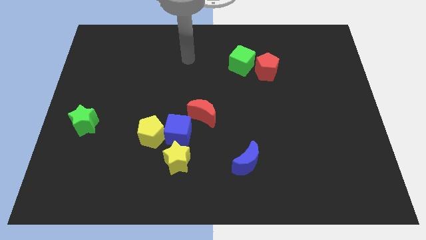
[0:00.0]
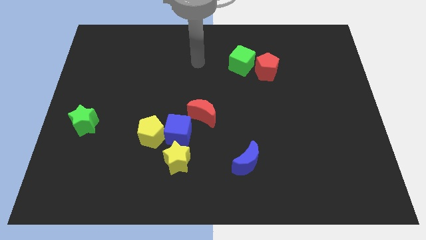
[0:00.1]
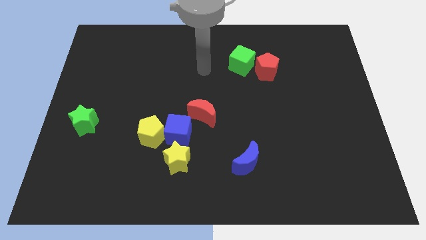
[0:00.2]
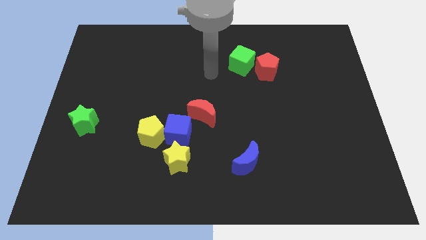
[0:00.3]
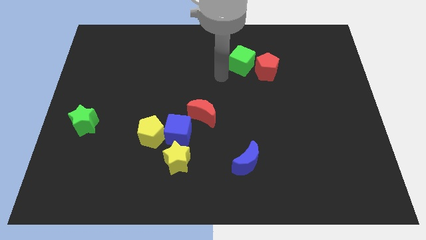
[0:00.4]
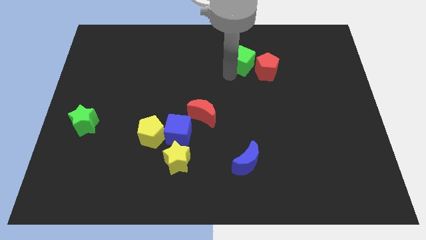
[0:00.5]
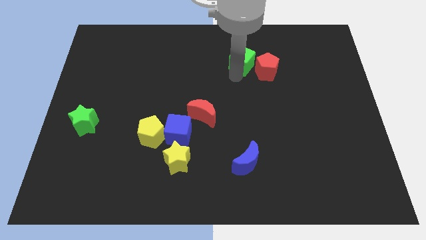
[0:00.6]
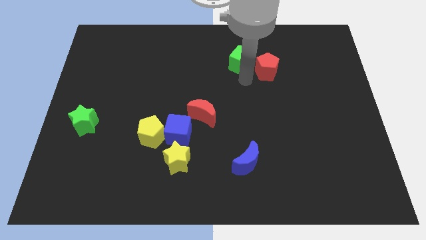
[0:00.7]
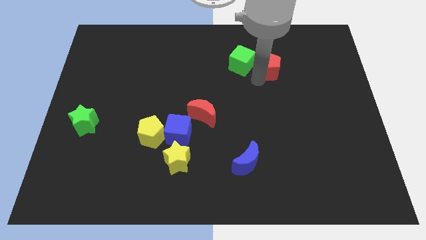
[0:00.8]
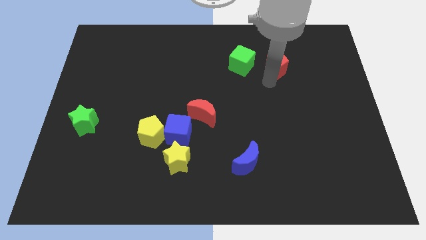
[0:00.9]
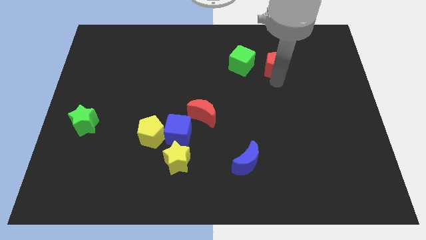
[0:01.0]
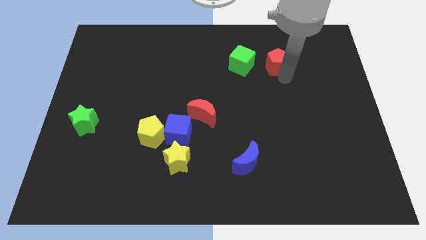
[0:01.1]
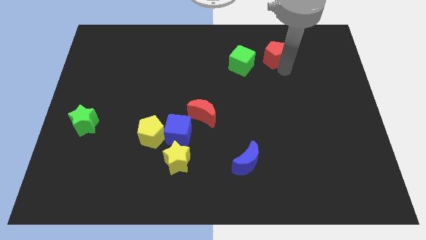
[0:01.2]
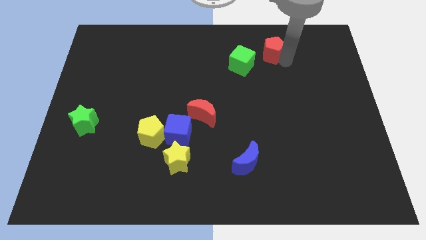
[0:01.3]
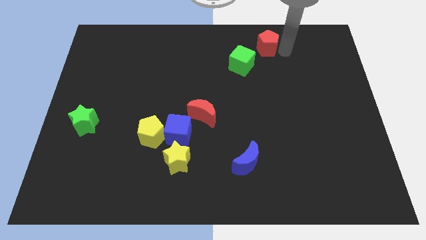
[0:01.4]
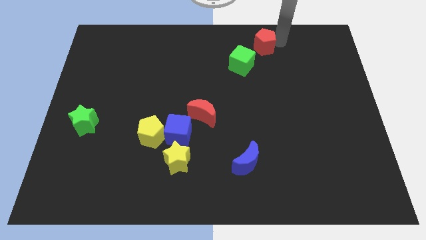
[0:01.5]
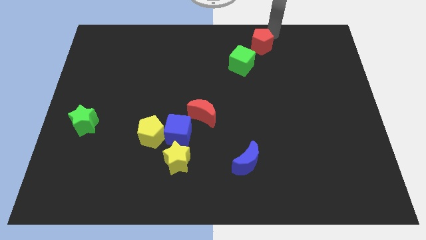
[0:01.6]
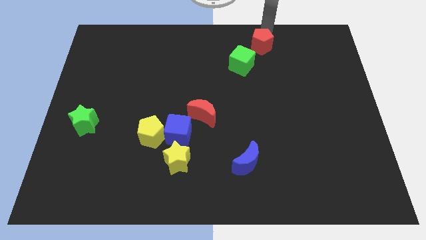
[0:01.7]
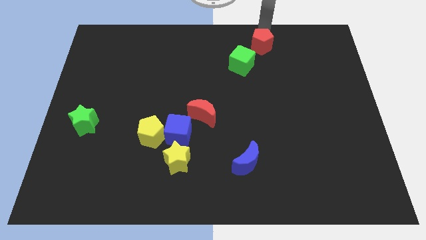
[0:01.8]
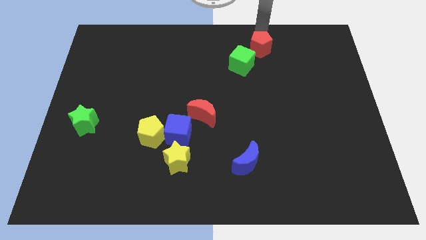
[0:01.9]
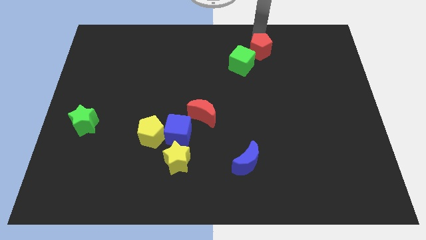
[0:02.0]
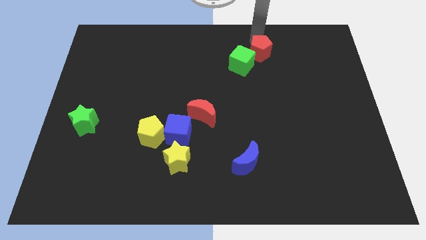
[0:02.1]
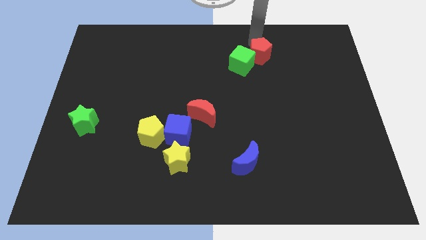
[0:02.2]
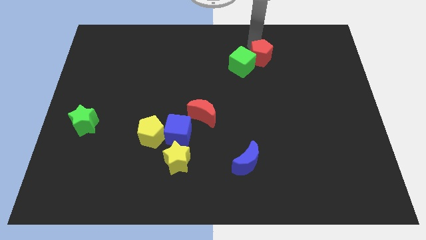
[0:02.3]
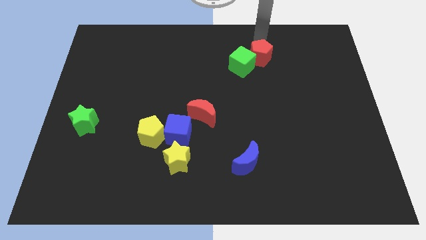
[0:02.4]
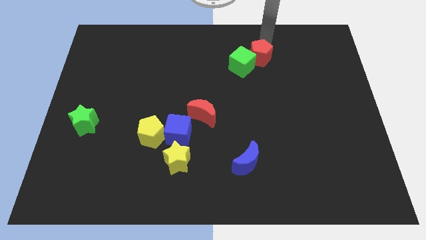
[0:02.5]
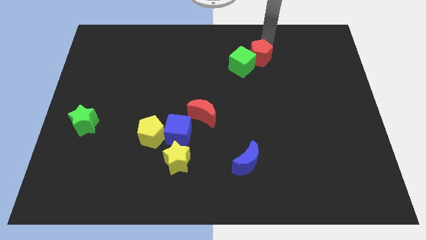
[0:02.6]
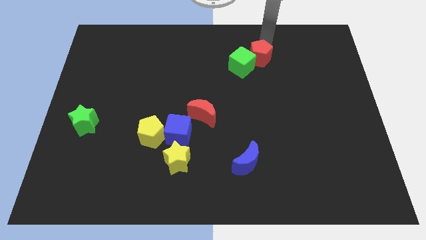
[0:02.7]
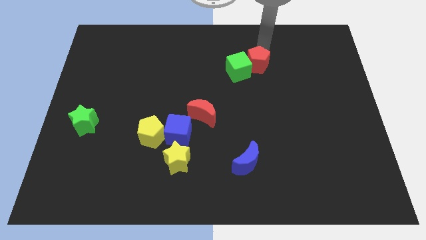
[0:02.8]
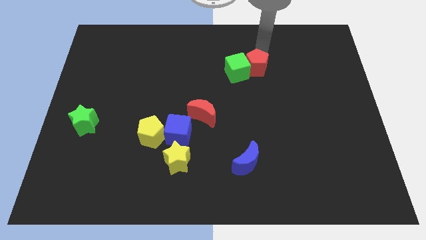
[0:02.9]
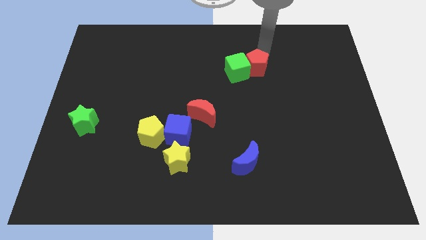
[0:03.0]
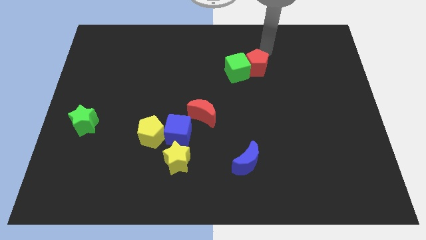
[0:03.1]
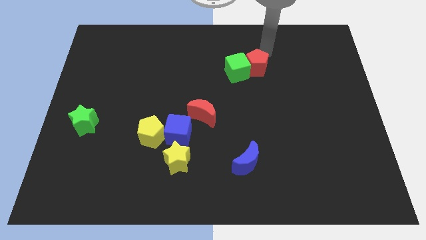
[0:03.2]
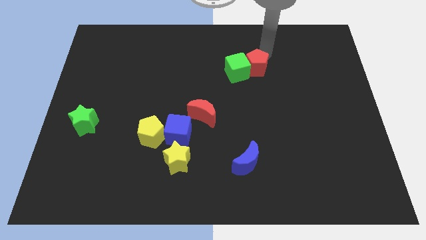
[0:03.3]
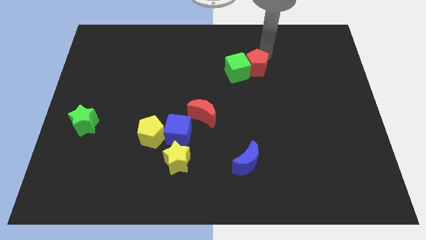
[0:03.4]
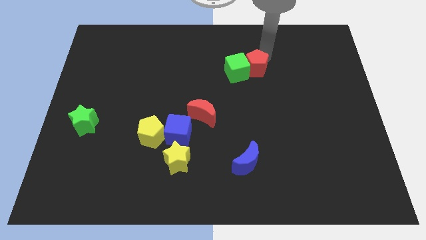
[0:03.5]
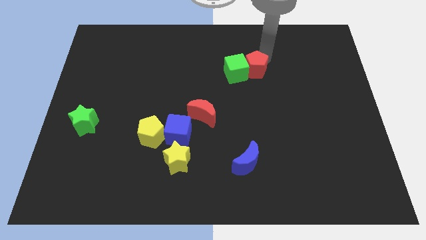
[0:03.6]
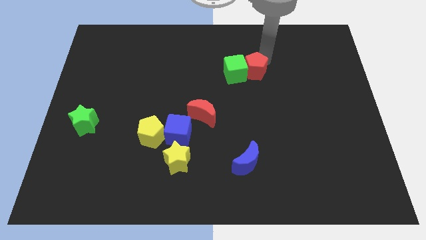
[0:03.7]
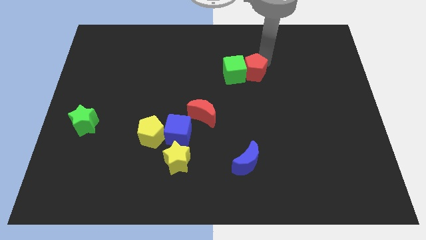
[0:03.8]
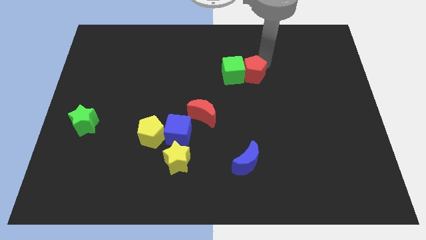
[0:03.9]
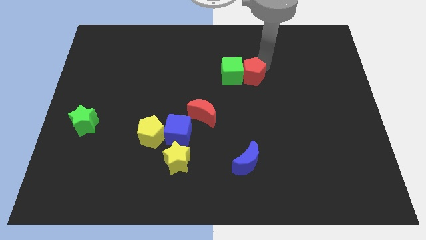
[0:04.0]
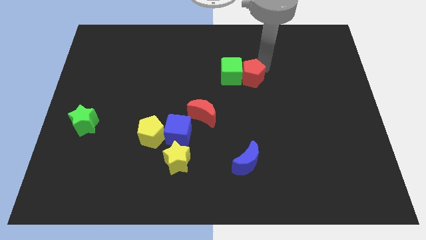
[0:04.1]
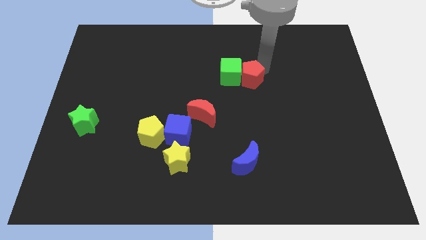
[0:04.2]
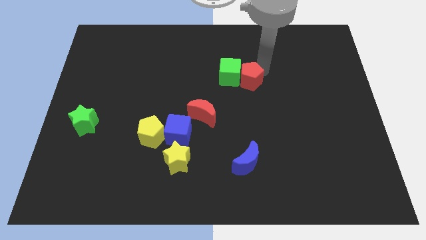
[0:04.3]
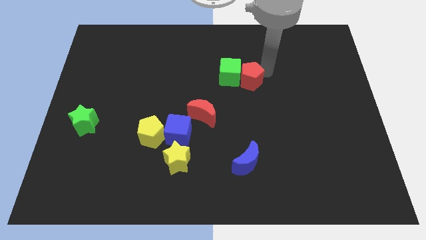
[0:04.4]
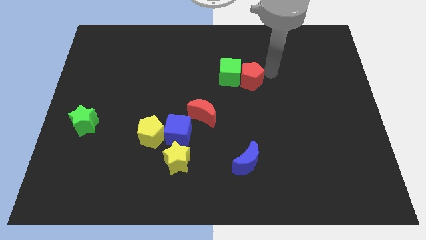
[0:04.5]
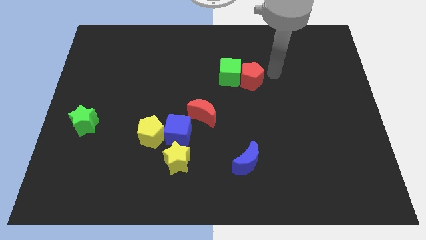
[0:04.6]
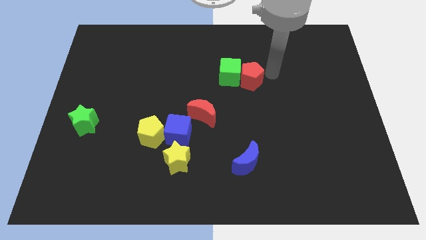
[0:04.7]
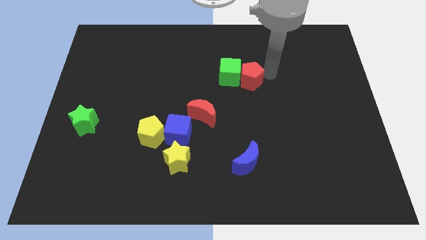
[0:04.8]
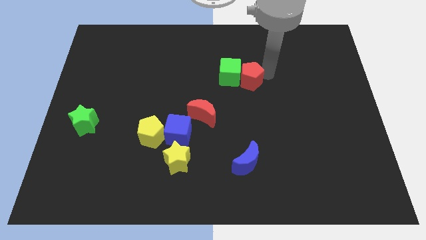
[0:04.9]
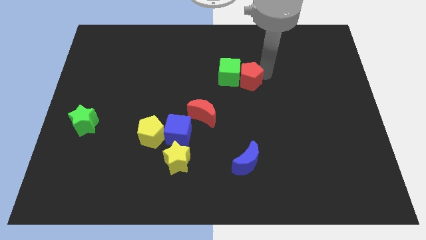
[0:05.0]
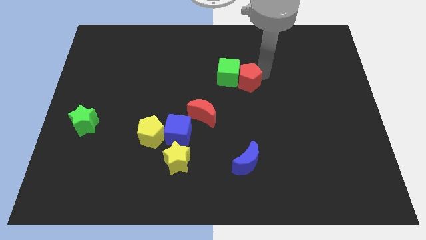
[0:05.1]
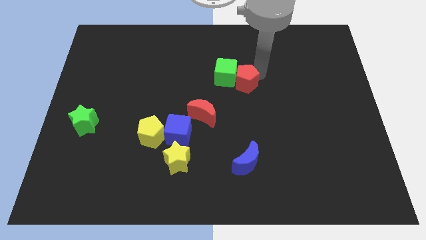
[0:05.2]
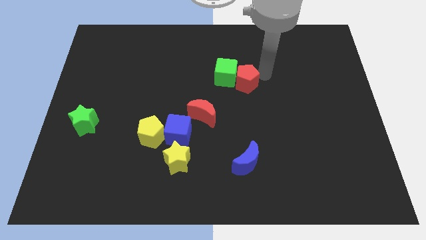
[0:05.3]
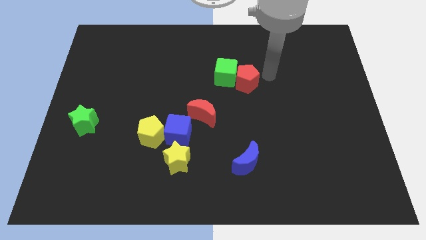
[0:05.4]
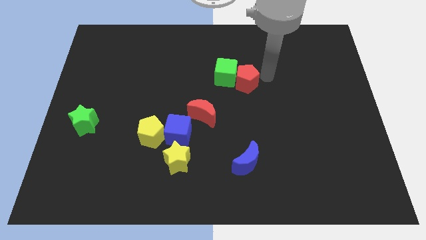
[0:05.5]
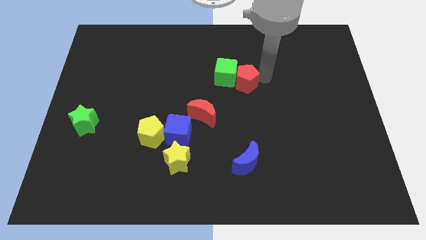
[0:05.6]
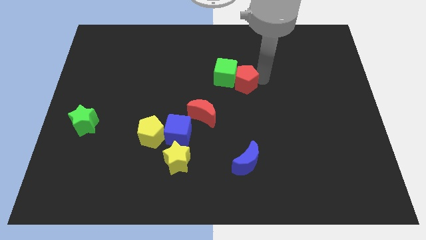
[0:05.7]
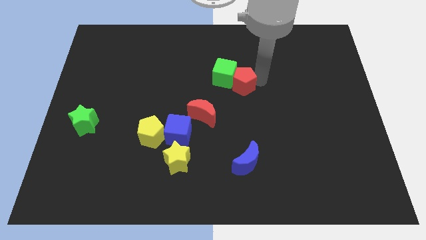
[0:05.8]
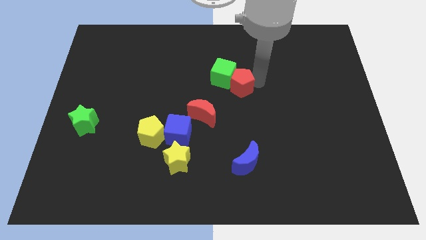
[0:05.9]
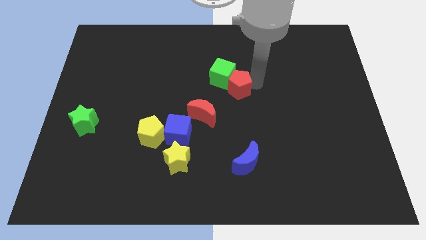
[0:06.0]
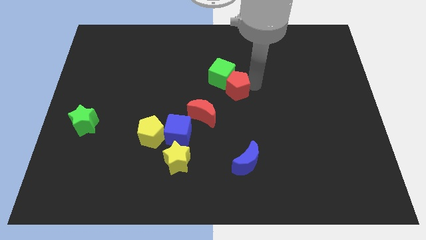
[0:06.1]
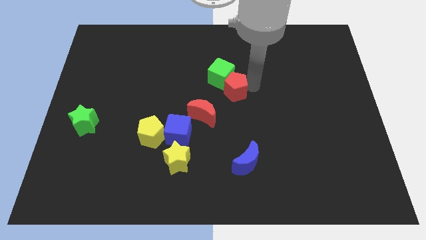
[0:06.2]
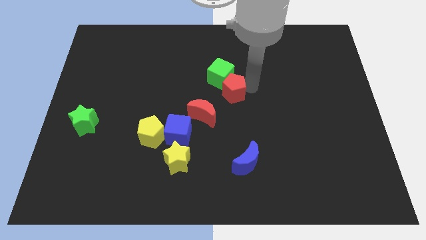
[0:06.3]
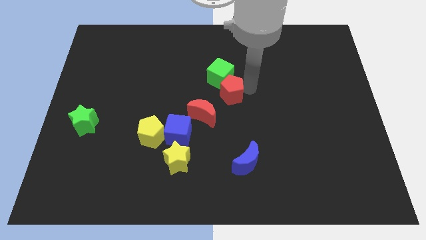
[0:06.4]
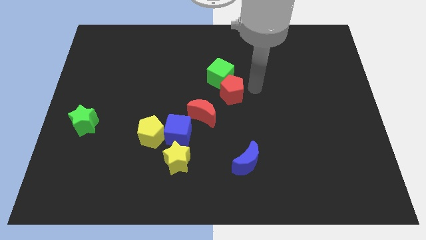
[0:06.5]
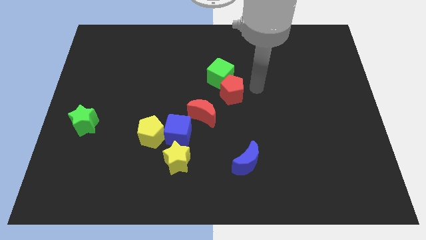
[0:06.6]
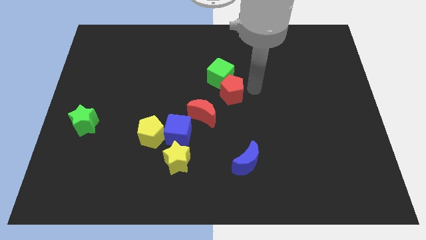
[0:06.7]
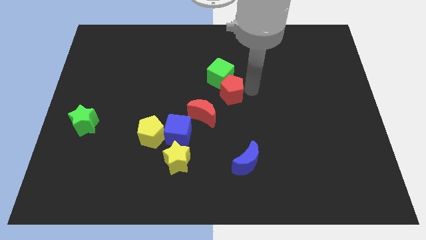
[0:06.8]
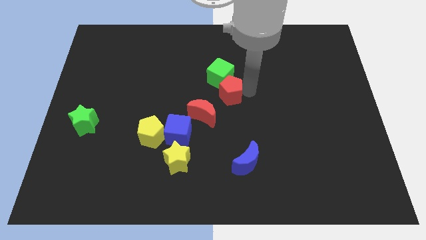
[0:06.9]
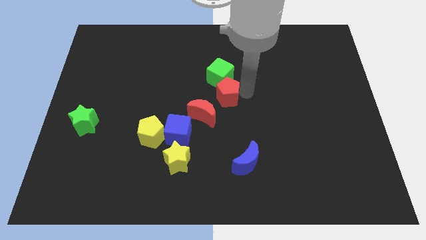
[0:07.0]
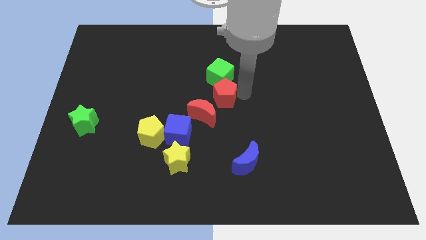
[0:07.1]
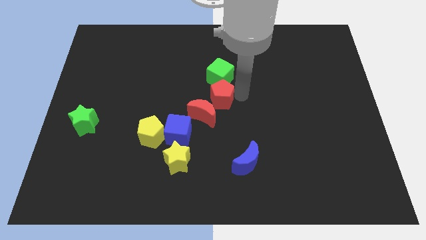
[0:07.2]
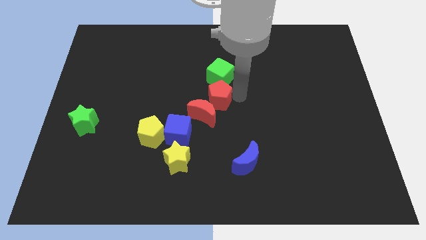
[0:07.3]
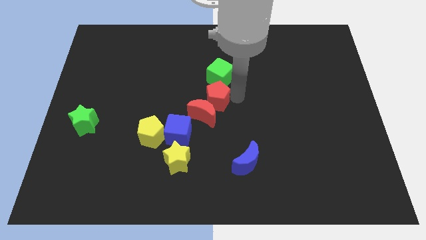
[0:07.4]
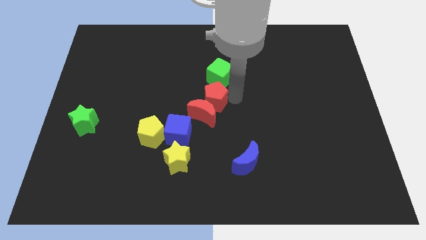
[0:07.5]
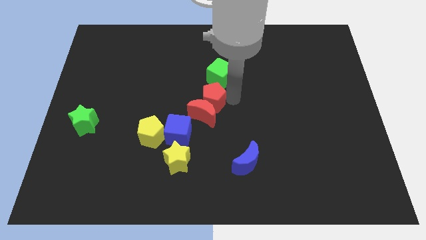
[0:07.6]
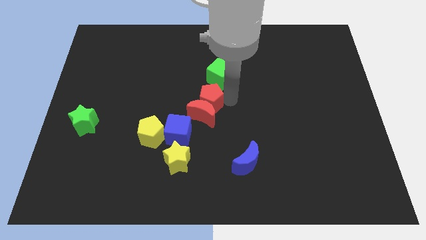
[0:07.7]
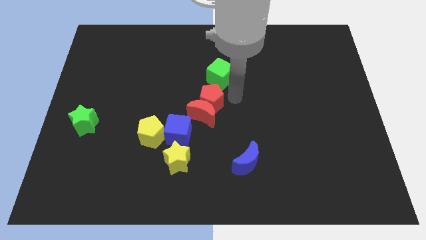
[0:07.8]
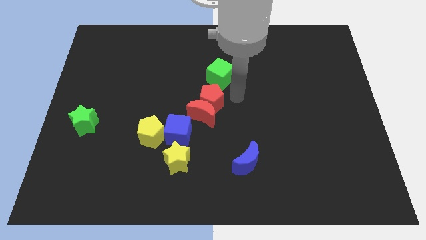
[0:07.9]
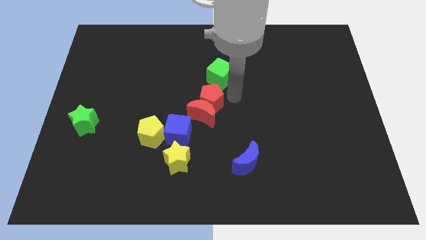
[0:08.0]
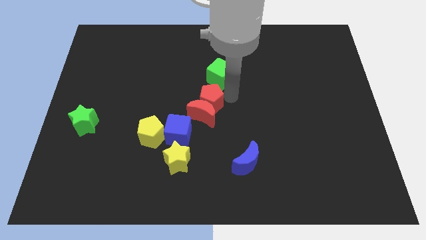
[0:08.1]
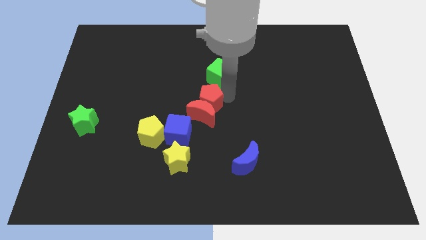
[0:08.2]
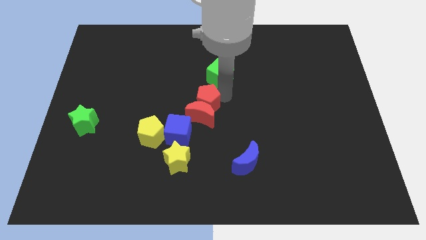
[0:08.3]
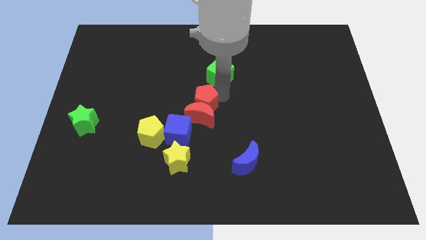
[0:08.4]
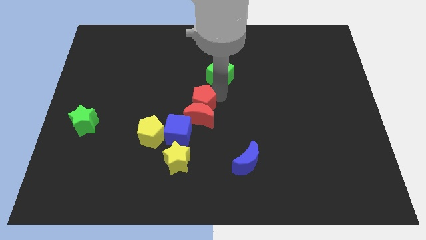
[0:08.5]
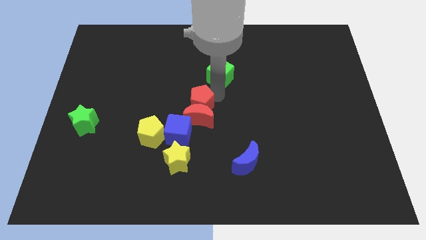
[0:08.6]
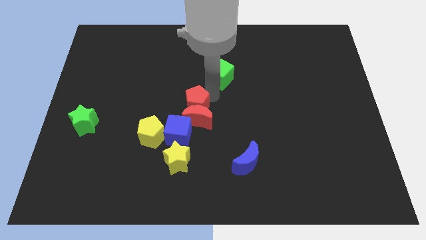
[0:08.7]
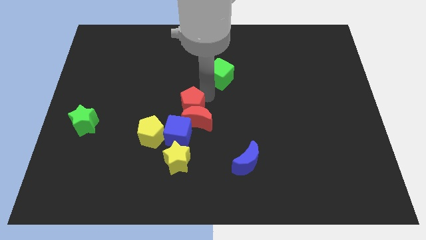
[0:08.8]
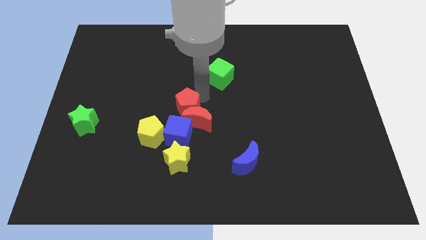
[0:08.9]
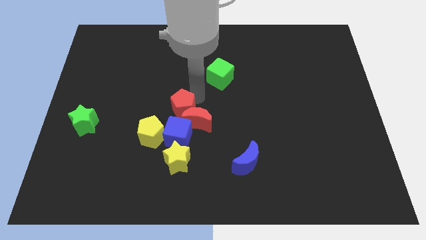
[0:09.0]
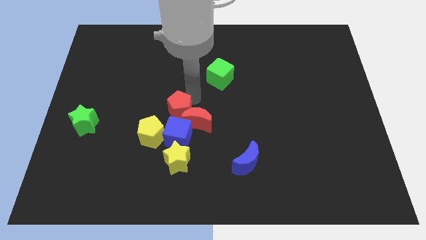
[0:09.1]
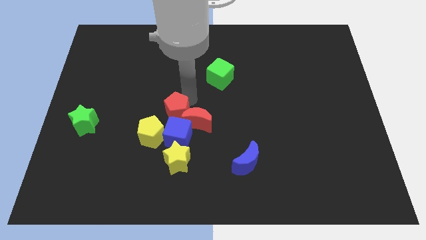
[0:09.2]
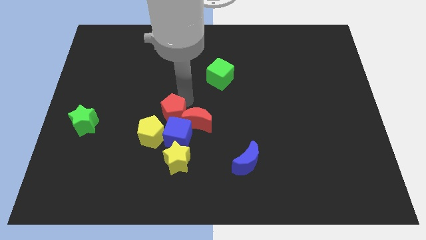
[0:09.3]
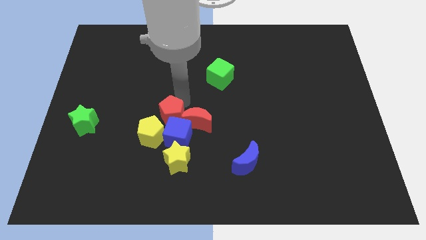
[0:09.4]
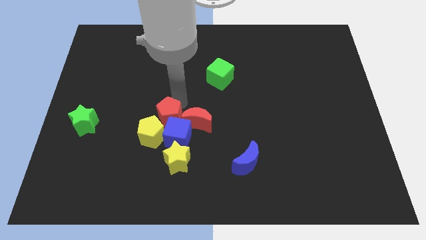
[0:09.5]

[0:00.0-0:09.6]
move the red pentagon to the yellow pentagon
